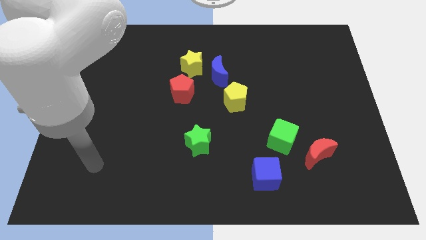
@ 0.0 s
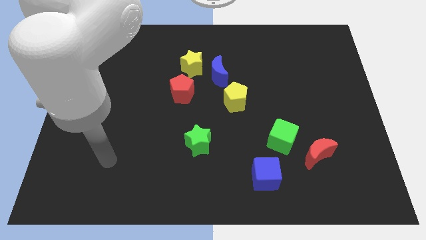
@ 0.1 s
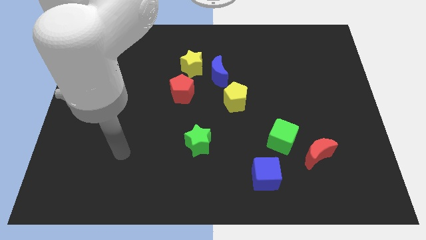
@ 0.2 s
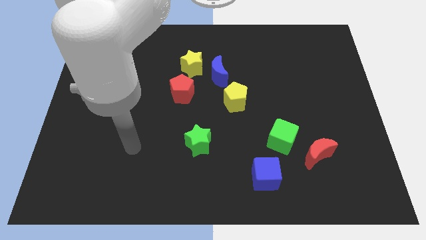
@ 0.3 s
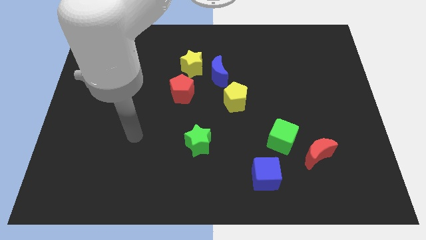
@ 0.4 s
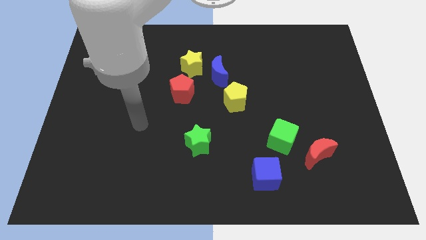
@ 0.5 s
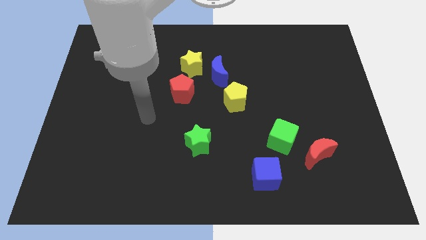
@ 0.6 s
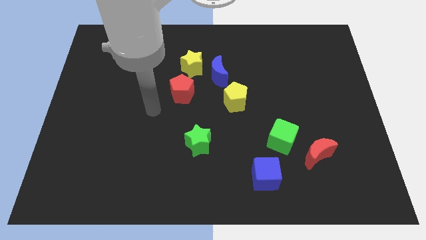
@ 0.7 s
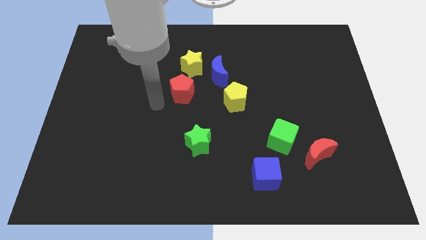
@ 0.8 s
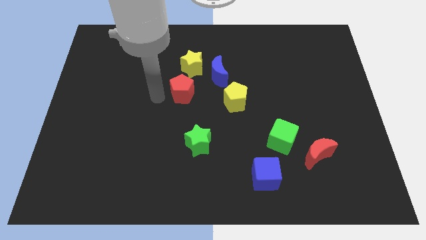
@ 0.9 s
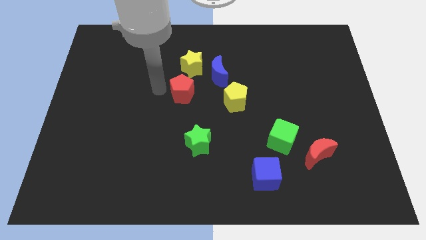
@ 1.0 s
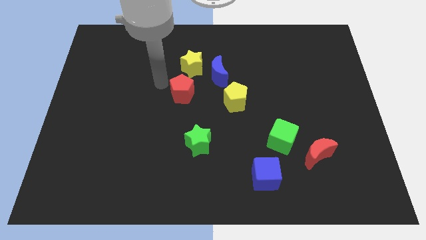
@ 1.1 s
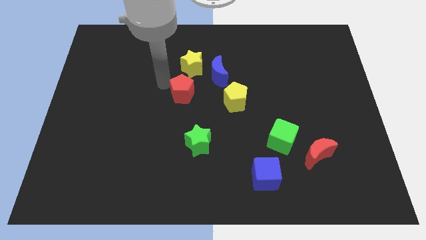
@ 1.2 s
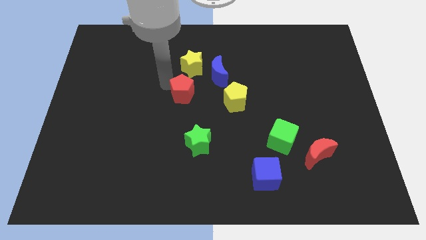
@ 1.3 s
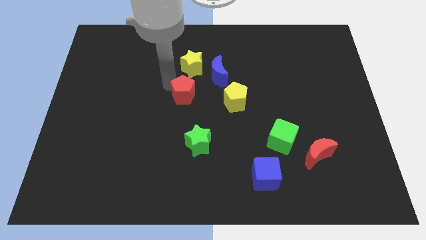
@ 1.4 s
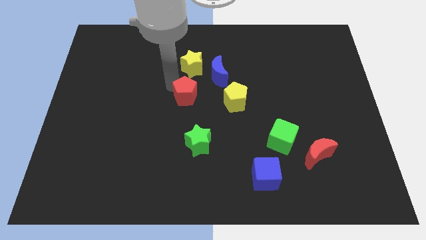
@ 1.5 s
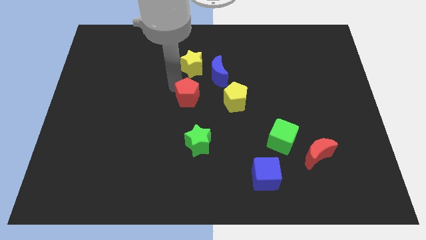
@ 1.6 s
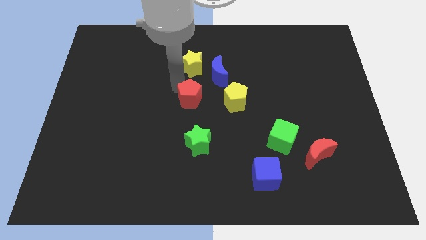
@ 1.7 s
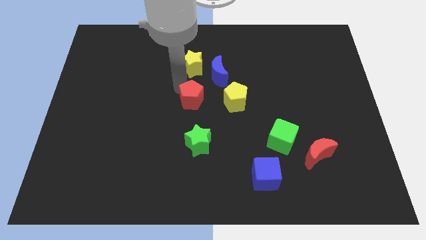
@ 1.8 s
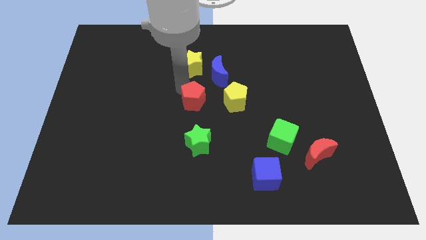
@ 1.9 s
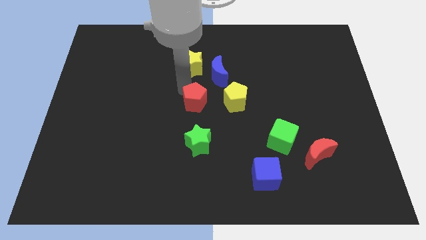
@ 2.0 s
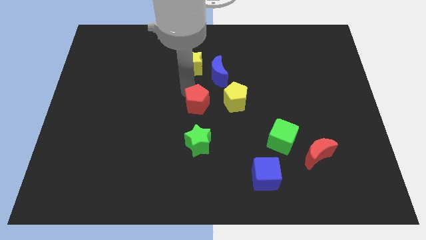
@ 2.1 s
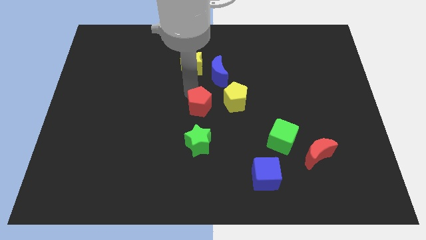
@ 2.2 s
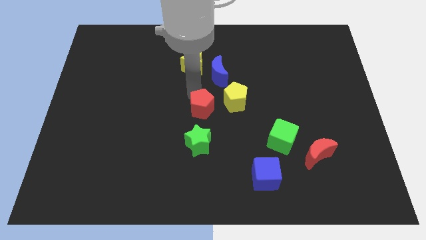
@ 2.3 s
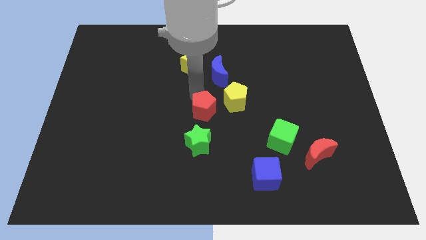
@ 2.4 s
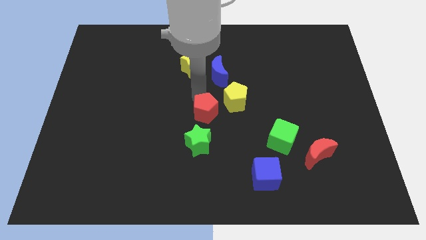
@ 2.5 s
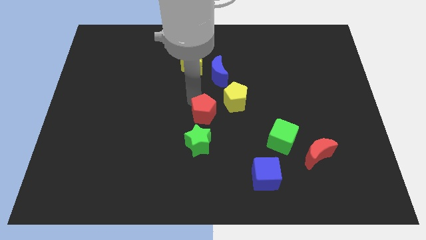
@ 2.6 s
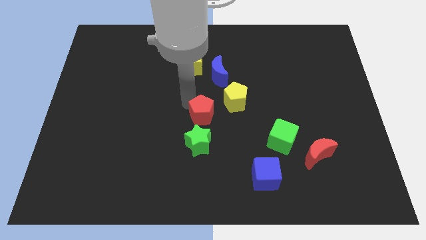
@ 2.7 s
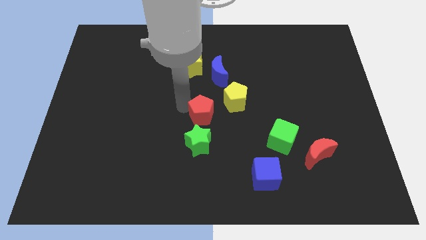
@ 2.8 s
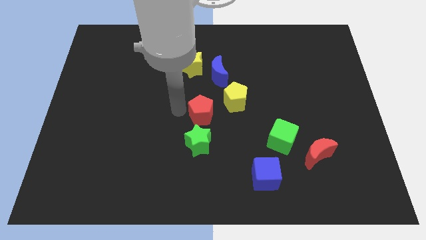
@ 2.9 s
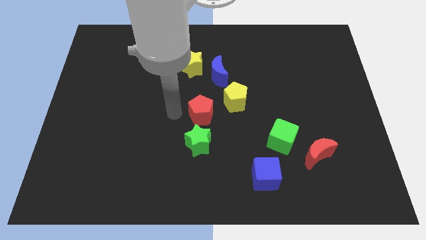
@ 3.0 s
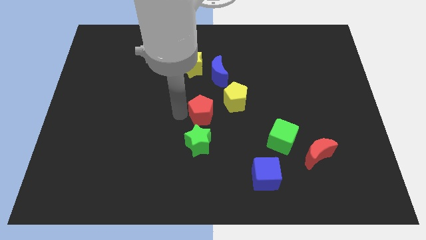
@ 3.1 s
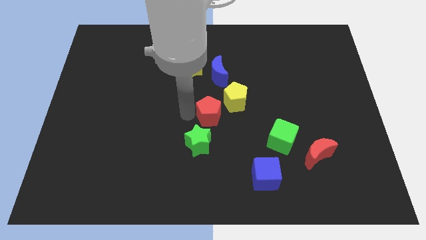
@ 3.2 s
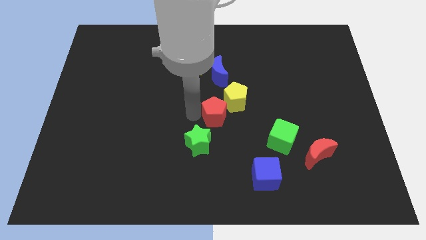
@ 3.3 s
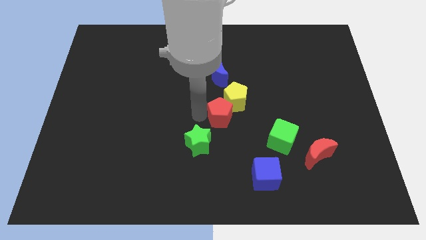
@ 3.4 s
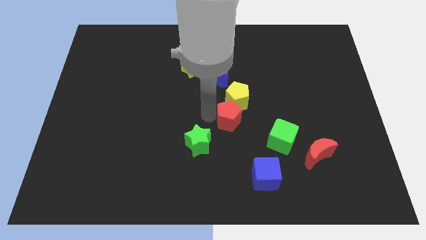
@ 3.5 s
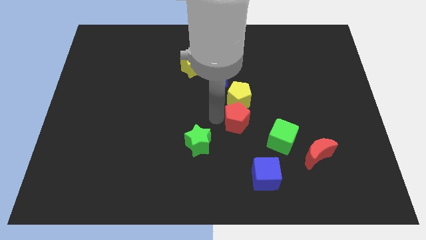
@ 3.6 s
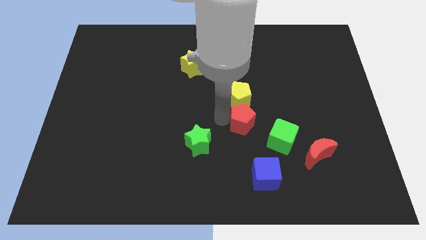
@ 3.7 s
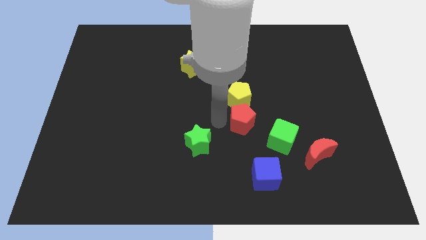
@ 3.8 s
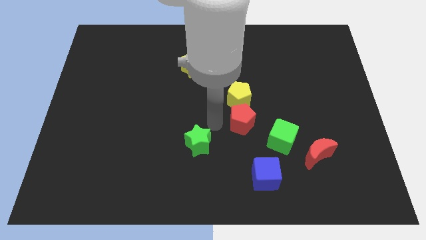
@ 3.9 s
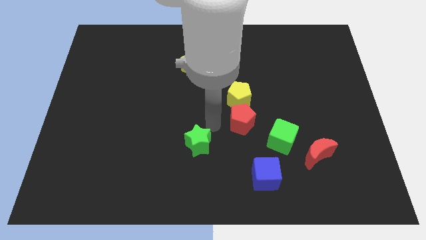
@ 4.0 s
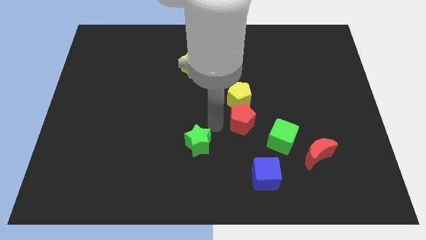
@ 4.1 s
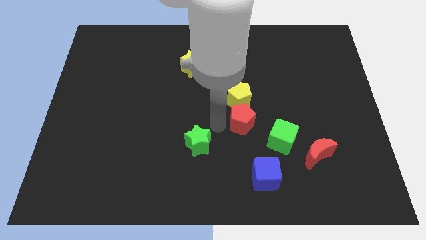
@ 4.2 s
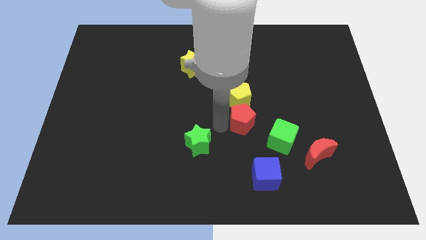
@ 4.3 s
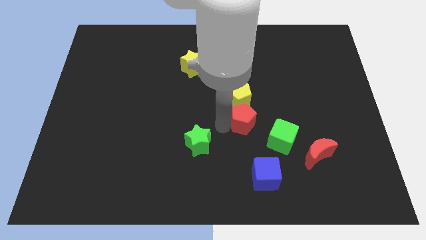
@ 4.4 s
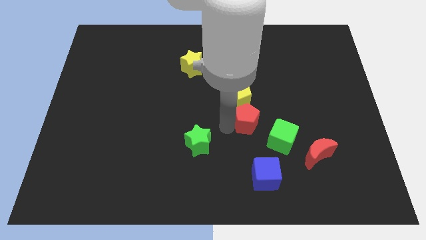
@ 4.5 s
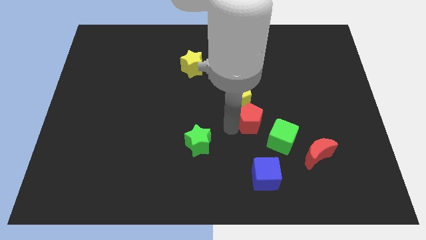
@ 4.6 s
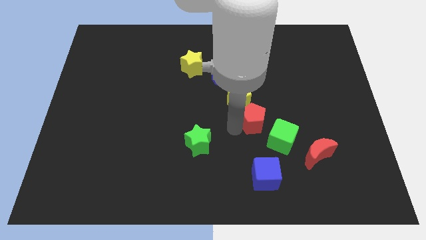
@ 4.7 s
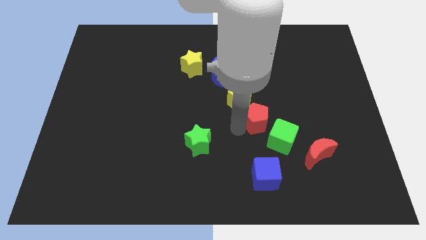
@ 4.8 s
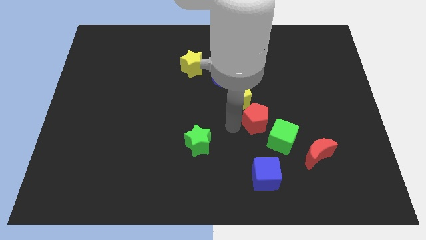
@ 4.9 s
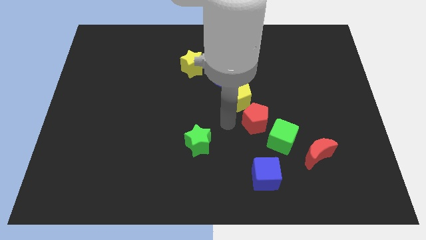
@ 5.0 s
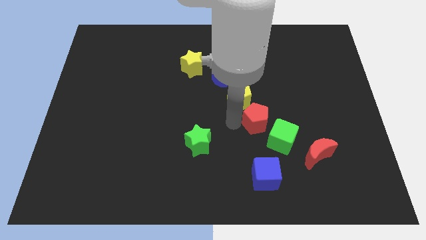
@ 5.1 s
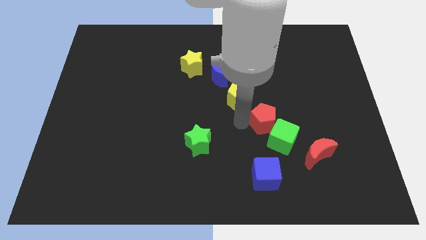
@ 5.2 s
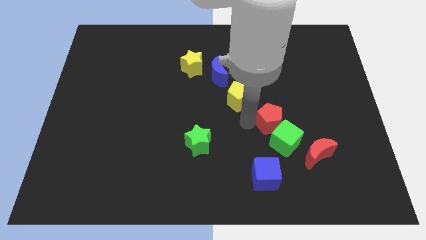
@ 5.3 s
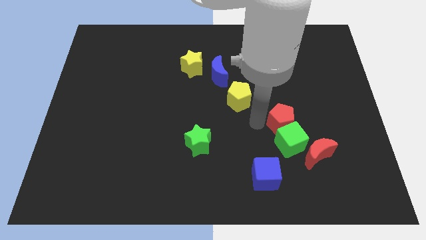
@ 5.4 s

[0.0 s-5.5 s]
slide the red pentagon diagonally up and to the right of the green cube
